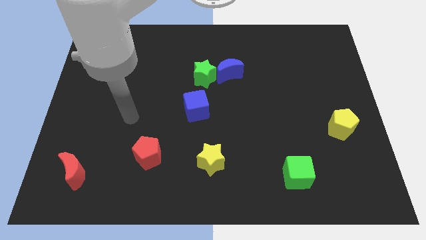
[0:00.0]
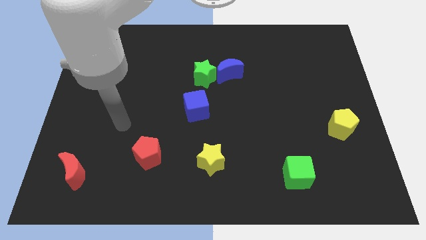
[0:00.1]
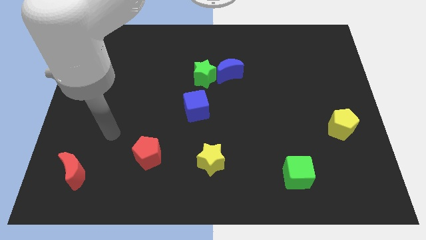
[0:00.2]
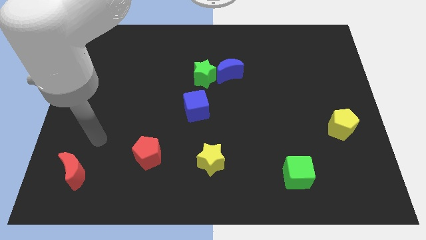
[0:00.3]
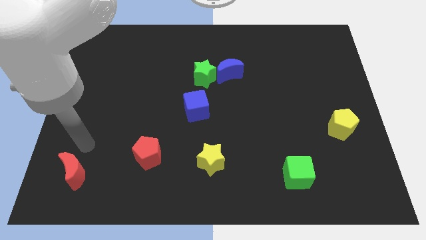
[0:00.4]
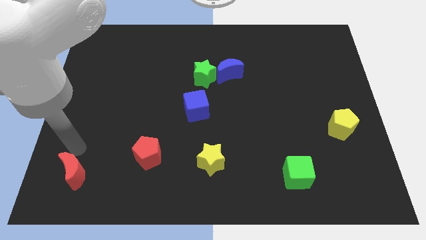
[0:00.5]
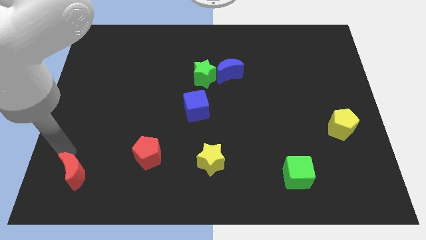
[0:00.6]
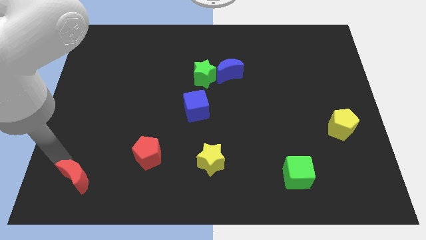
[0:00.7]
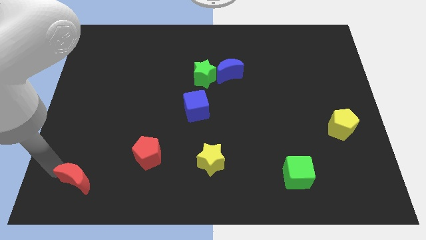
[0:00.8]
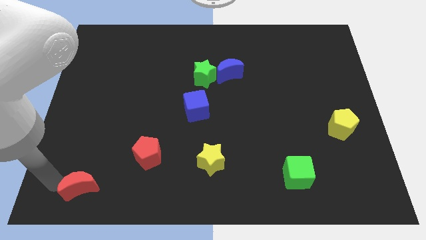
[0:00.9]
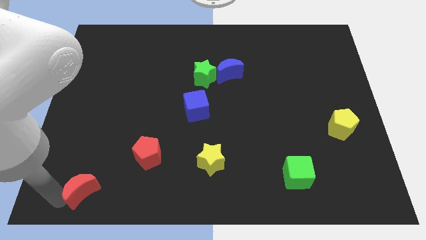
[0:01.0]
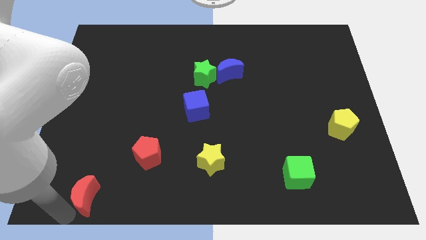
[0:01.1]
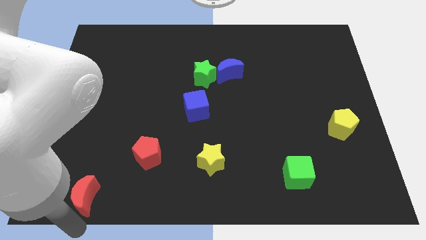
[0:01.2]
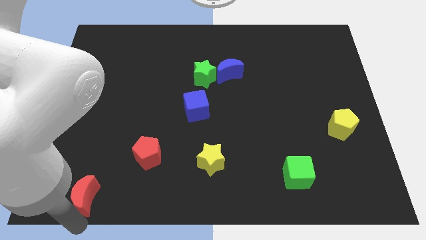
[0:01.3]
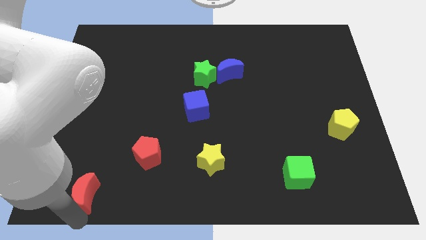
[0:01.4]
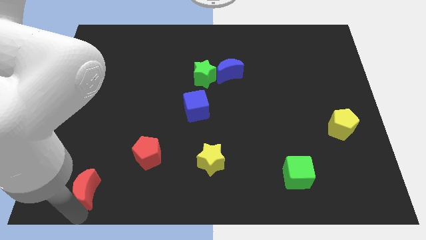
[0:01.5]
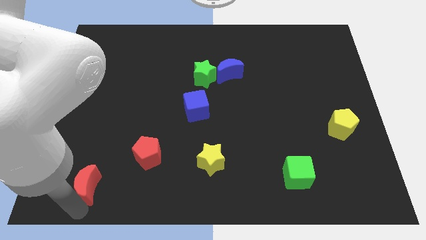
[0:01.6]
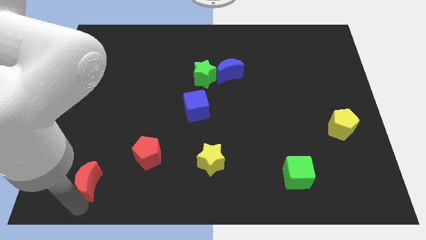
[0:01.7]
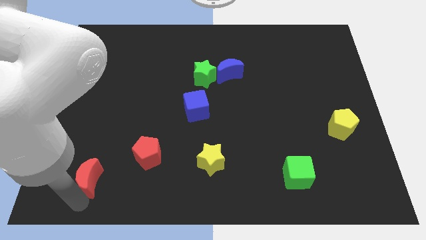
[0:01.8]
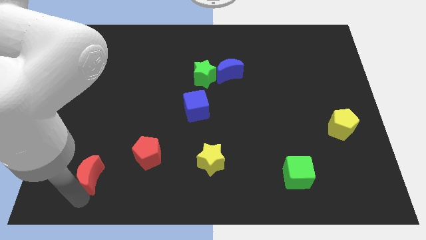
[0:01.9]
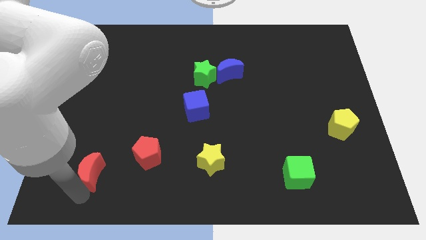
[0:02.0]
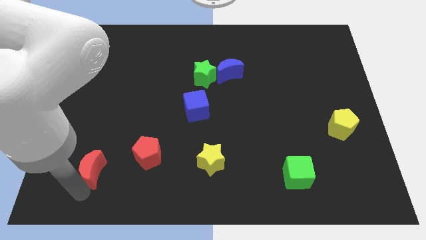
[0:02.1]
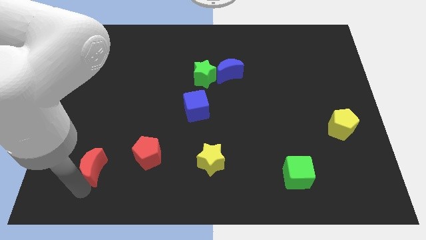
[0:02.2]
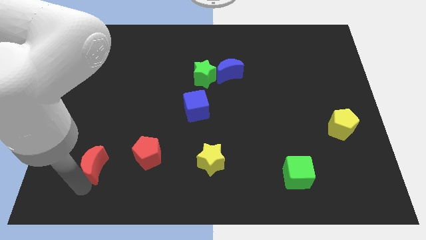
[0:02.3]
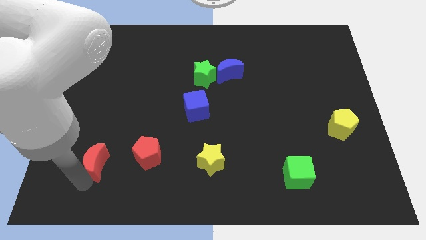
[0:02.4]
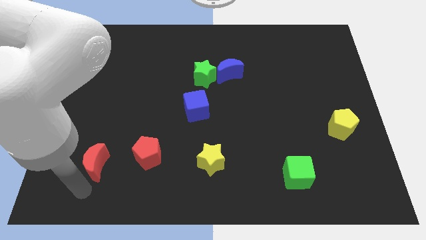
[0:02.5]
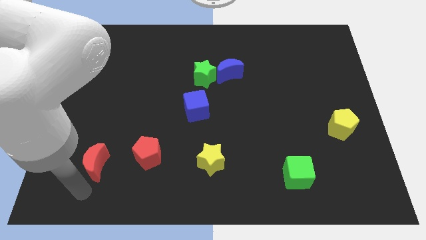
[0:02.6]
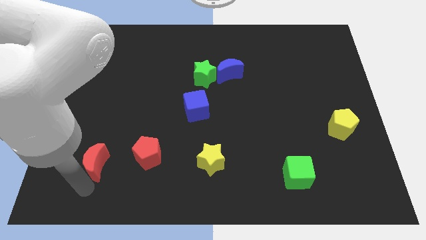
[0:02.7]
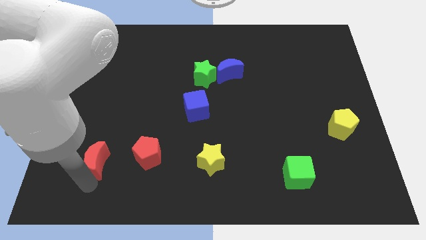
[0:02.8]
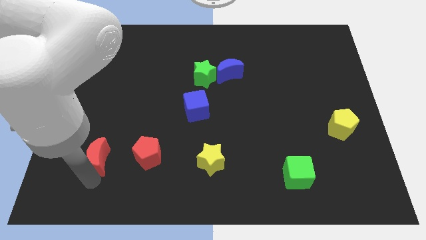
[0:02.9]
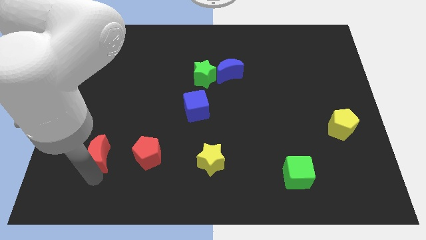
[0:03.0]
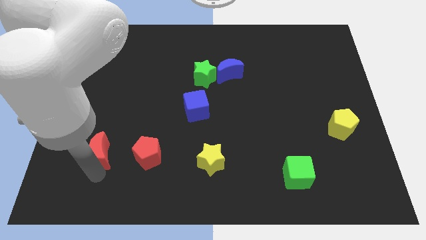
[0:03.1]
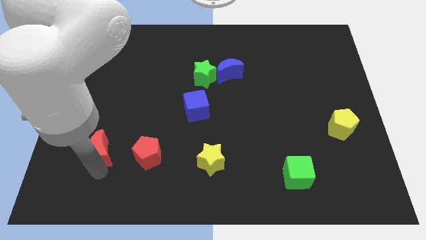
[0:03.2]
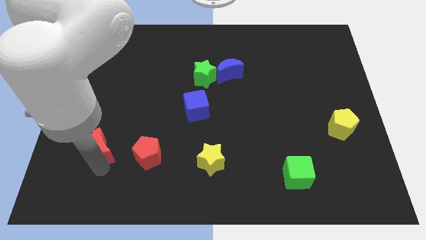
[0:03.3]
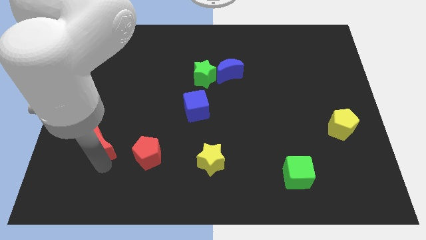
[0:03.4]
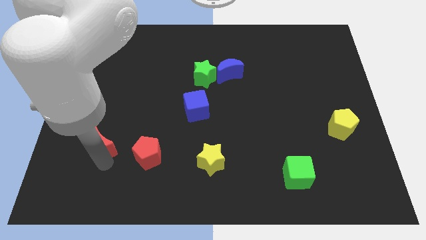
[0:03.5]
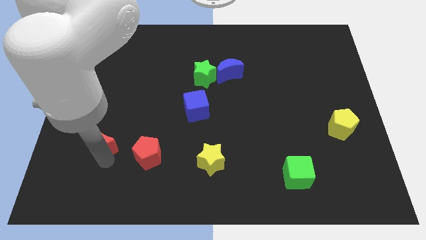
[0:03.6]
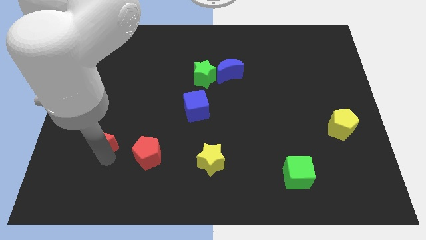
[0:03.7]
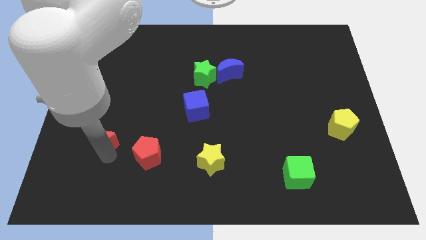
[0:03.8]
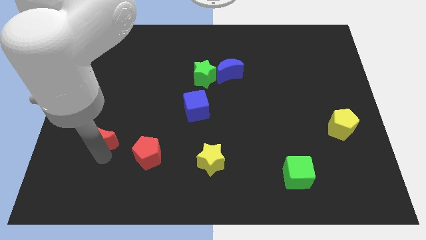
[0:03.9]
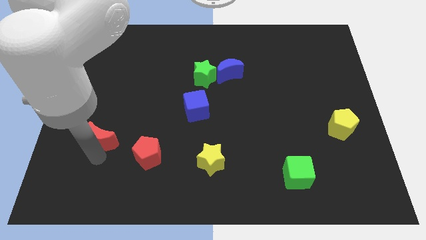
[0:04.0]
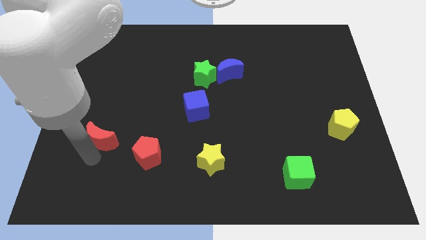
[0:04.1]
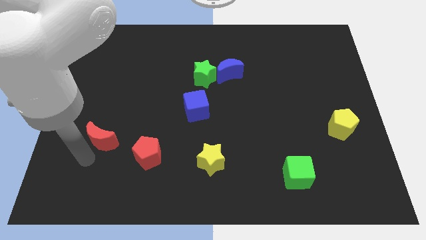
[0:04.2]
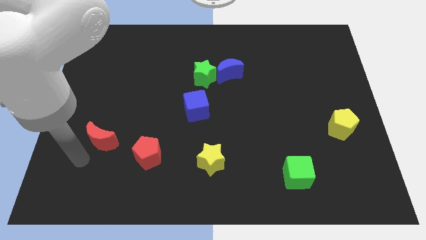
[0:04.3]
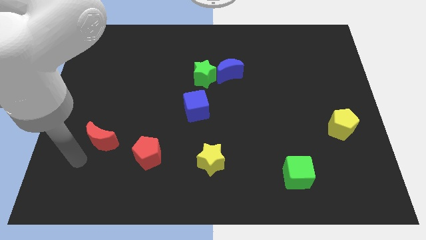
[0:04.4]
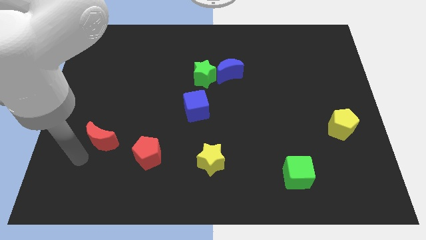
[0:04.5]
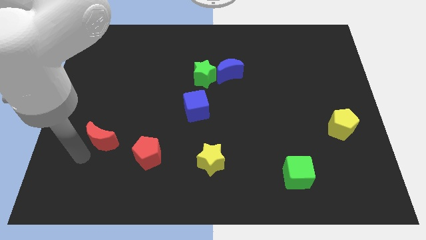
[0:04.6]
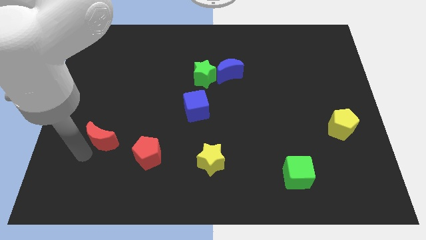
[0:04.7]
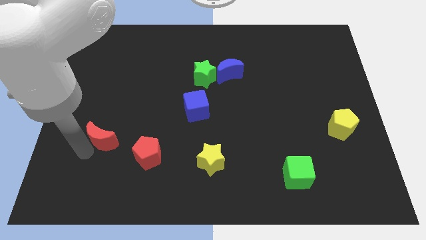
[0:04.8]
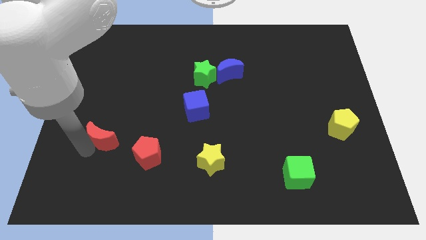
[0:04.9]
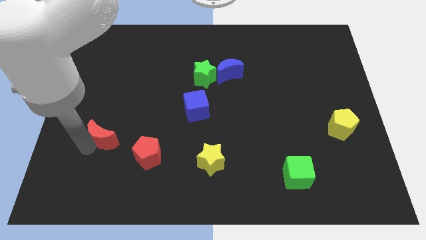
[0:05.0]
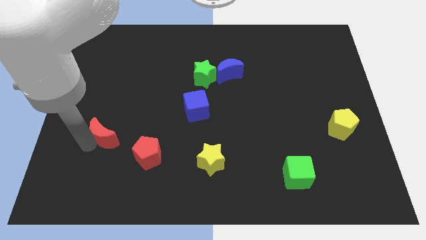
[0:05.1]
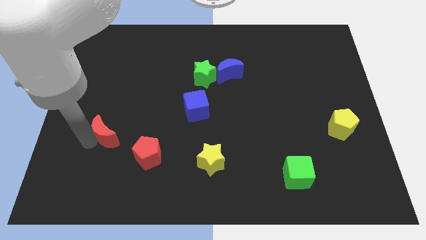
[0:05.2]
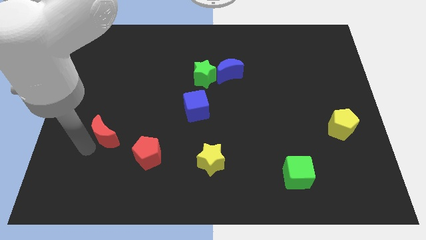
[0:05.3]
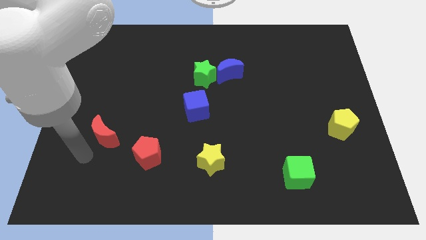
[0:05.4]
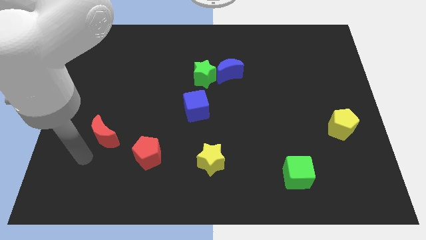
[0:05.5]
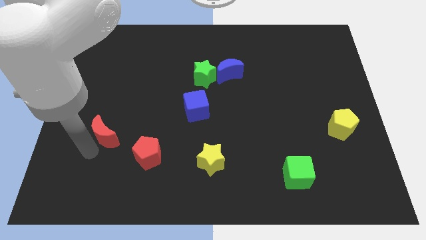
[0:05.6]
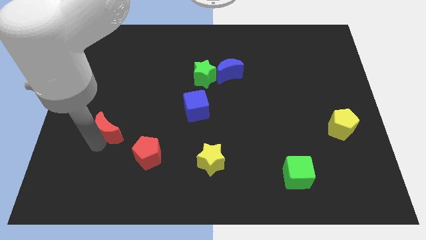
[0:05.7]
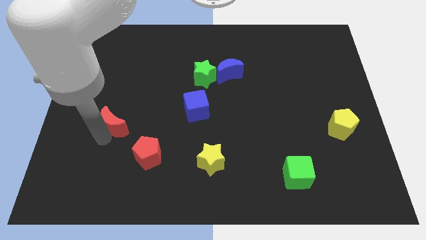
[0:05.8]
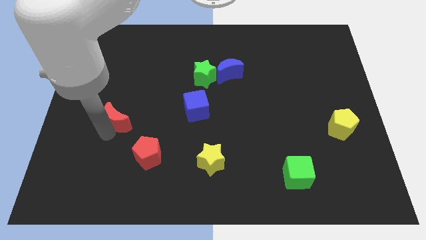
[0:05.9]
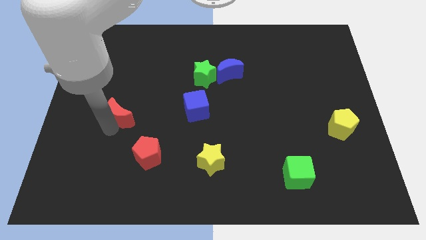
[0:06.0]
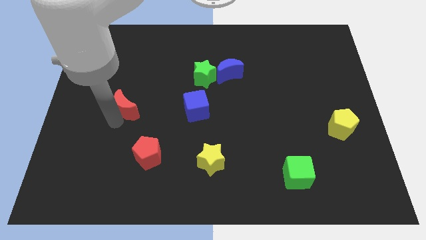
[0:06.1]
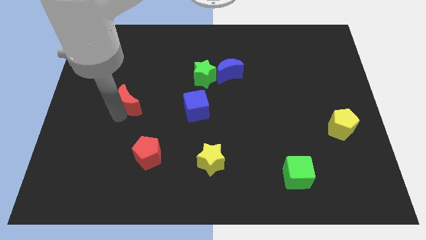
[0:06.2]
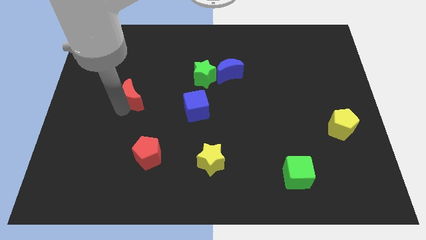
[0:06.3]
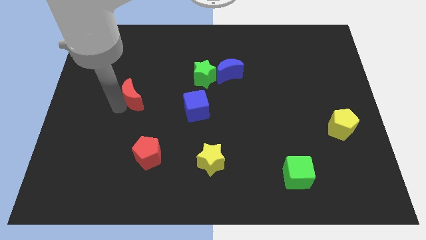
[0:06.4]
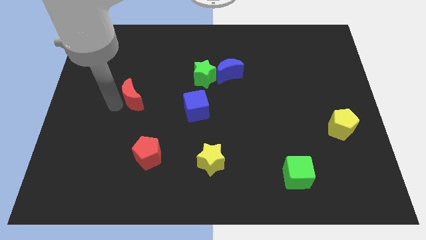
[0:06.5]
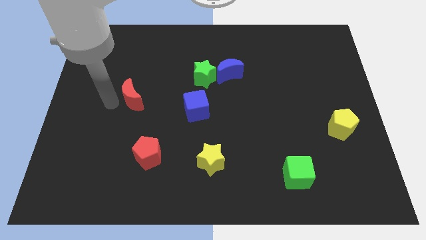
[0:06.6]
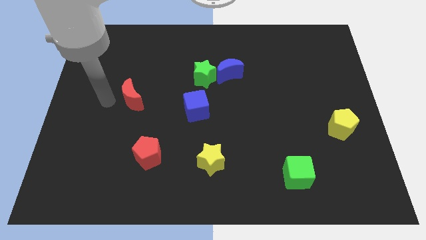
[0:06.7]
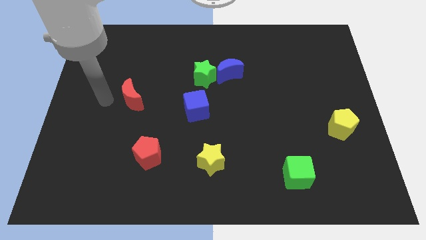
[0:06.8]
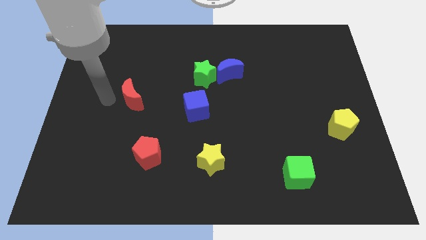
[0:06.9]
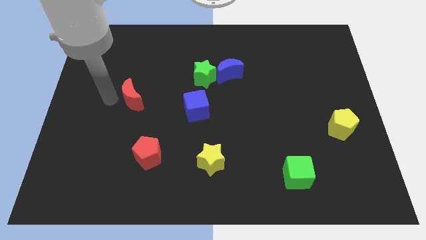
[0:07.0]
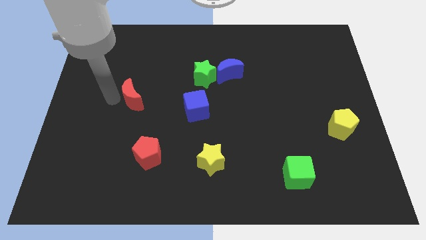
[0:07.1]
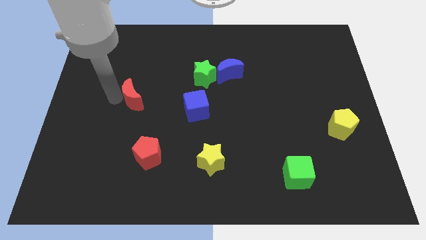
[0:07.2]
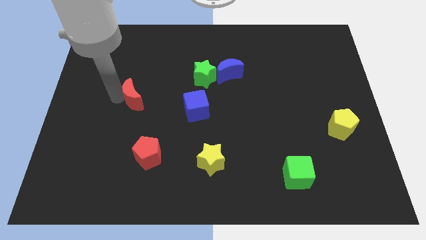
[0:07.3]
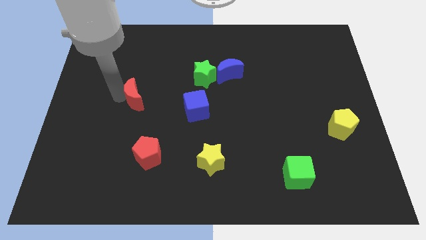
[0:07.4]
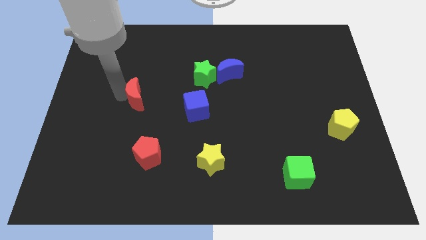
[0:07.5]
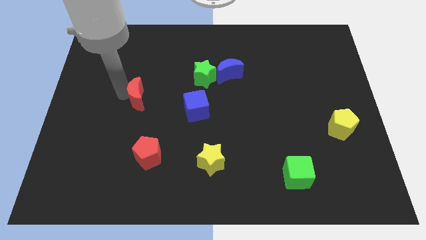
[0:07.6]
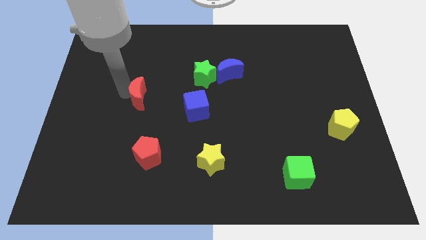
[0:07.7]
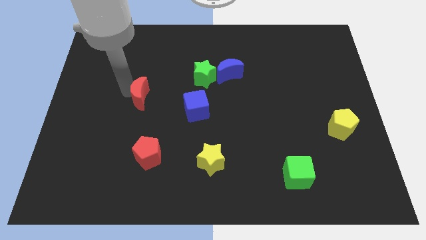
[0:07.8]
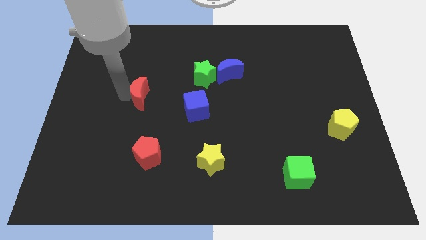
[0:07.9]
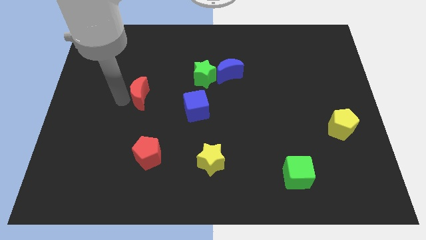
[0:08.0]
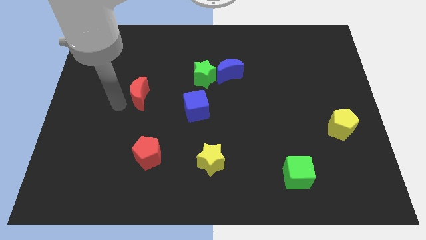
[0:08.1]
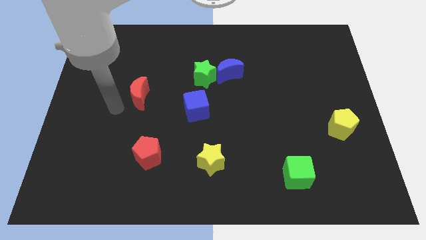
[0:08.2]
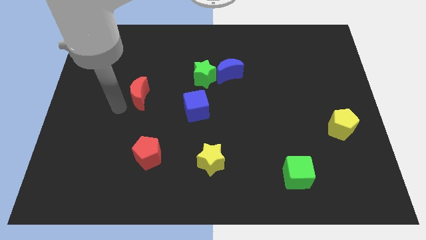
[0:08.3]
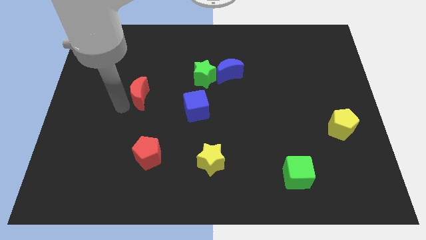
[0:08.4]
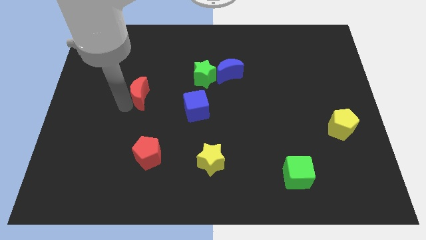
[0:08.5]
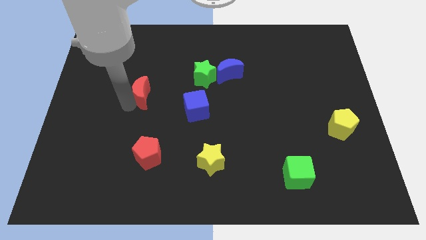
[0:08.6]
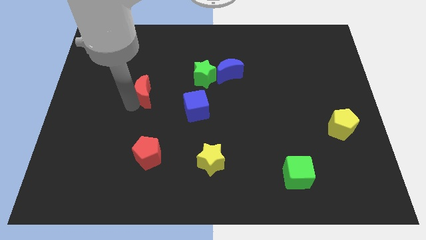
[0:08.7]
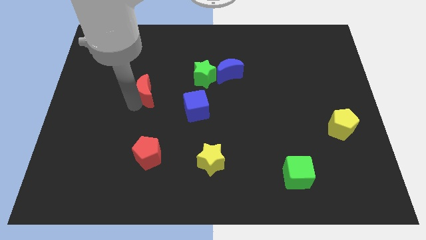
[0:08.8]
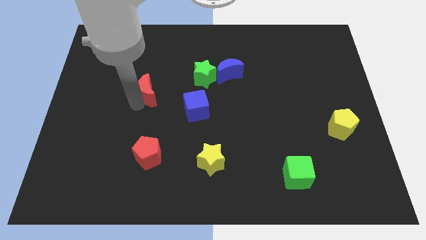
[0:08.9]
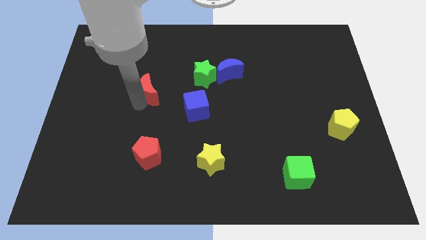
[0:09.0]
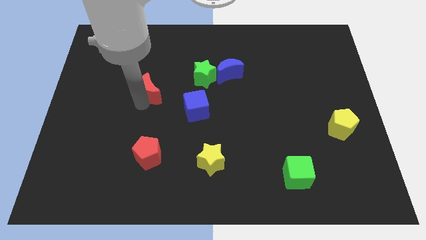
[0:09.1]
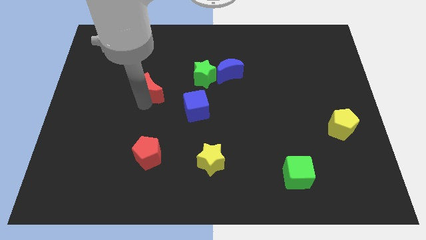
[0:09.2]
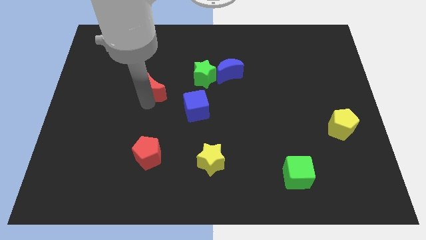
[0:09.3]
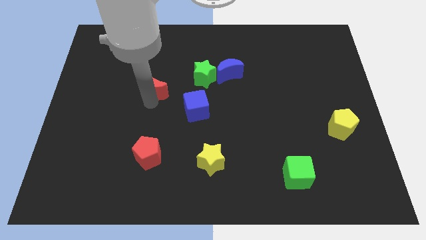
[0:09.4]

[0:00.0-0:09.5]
push the red moon just left of the green star
